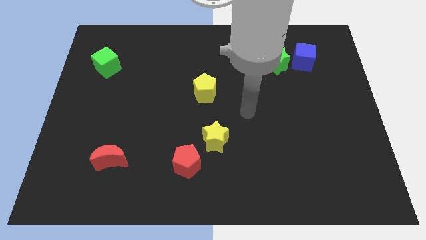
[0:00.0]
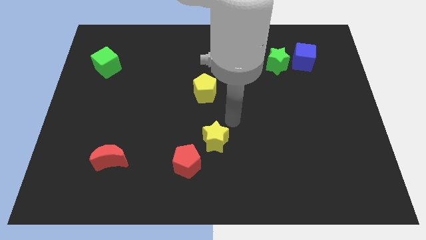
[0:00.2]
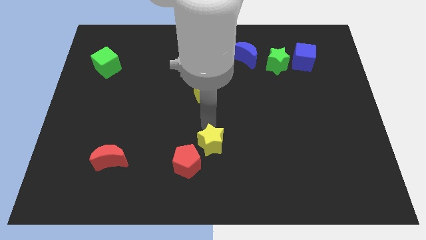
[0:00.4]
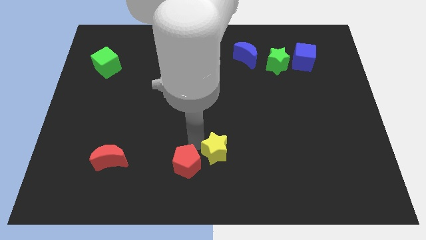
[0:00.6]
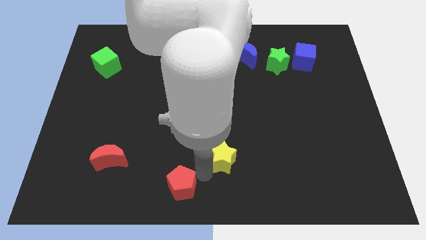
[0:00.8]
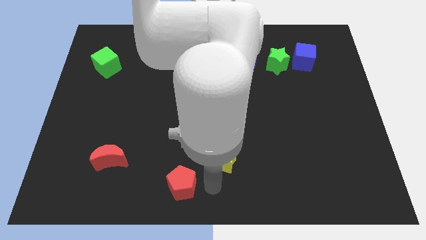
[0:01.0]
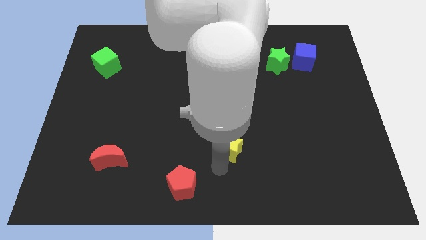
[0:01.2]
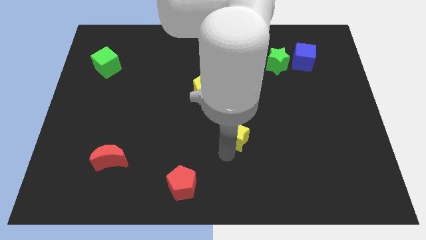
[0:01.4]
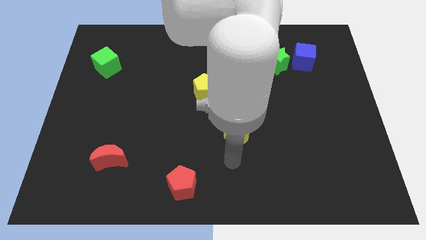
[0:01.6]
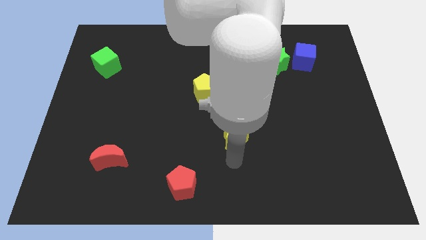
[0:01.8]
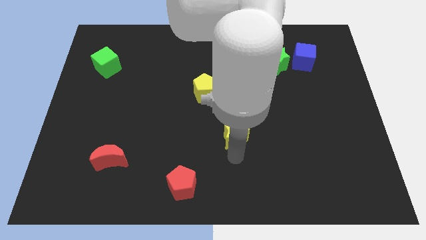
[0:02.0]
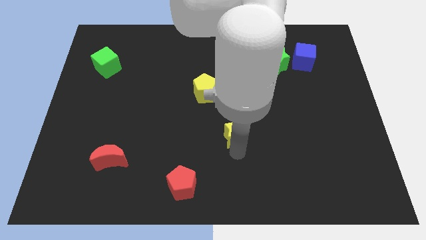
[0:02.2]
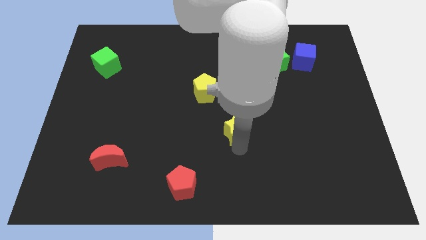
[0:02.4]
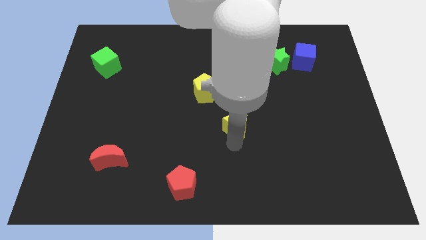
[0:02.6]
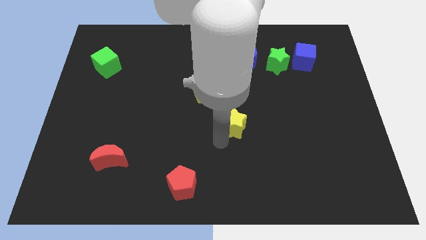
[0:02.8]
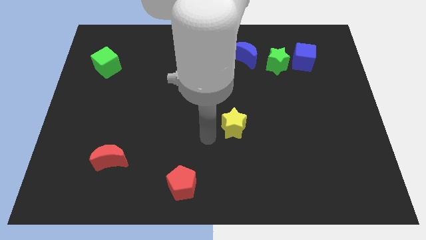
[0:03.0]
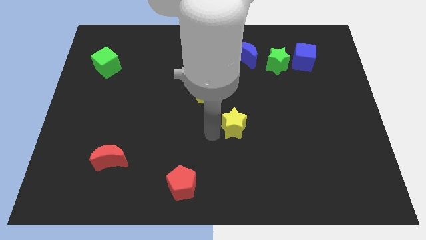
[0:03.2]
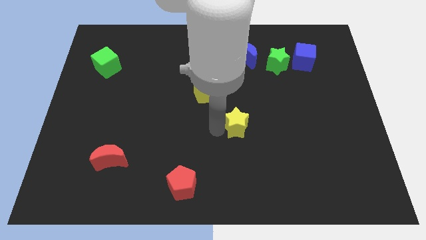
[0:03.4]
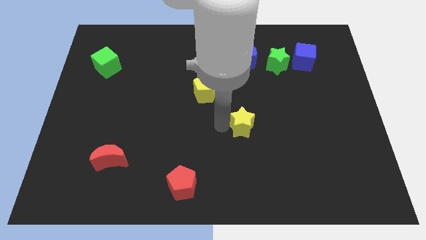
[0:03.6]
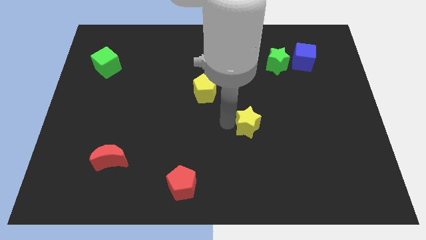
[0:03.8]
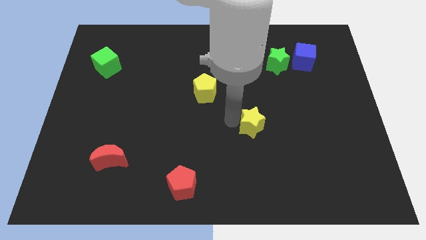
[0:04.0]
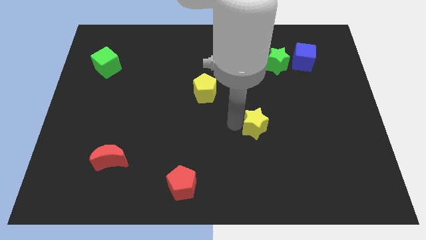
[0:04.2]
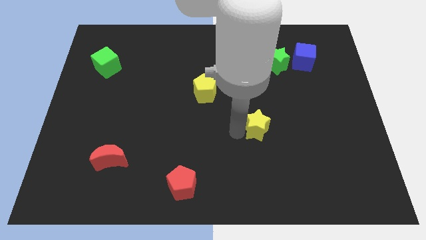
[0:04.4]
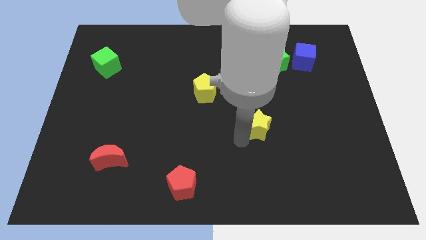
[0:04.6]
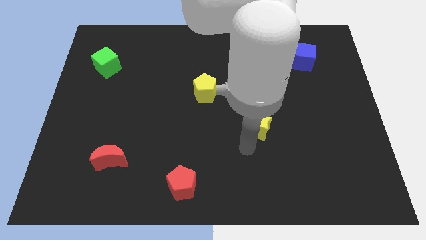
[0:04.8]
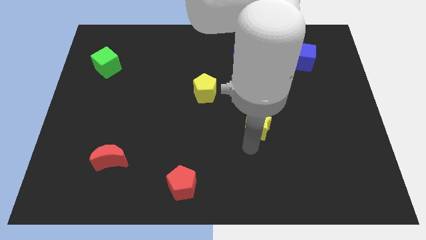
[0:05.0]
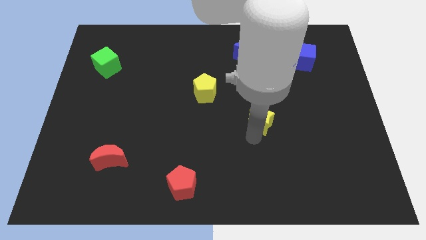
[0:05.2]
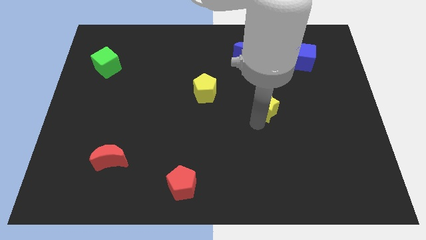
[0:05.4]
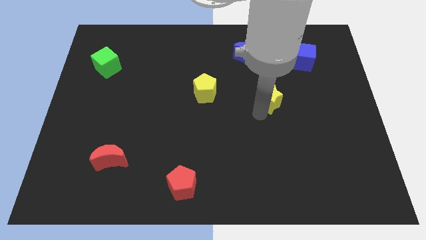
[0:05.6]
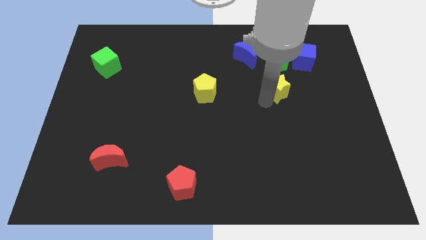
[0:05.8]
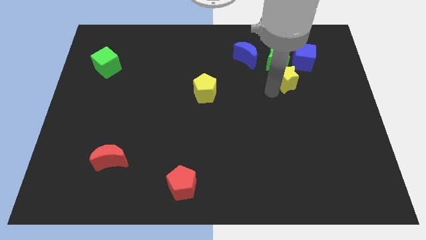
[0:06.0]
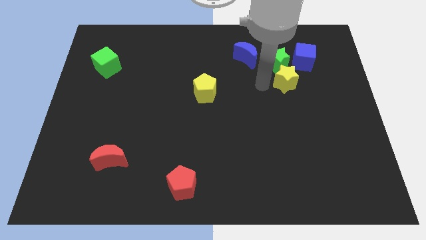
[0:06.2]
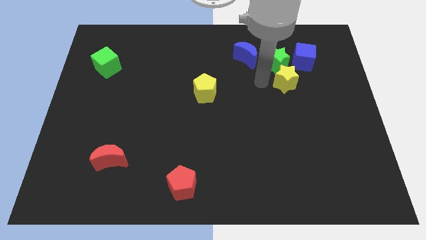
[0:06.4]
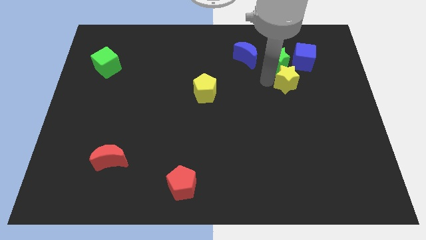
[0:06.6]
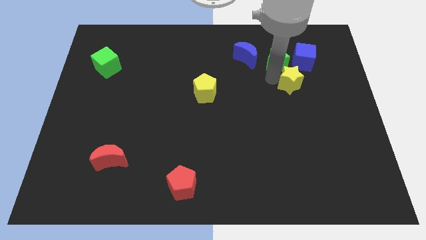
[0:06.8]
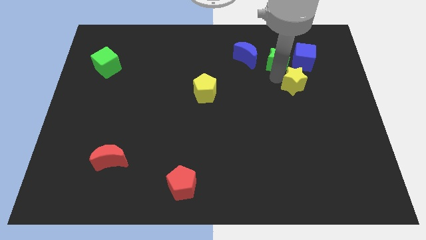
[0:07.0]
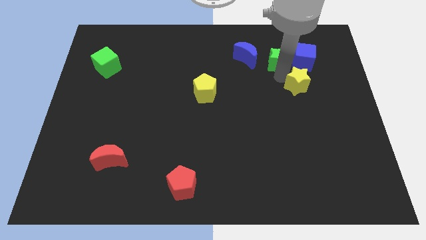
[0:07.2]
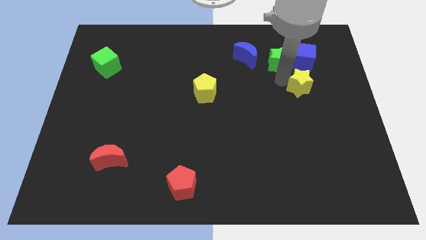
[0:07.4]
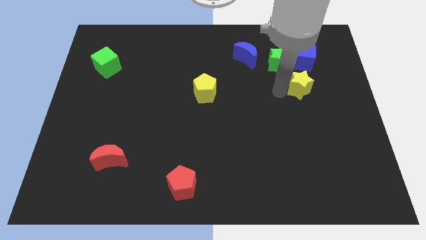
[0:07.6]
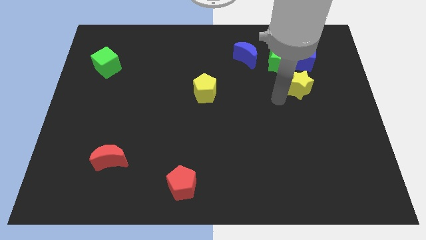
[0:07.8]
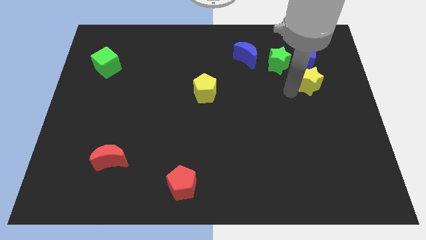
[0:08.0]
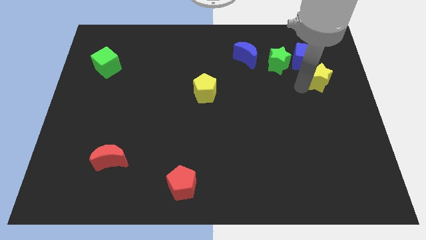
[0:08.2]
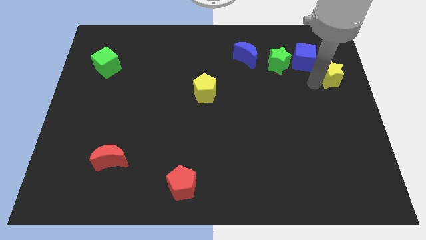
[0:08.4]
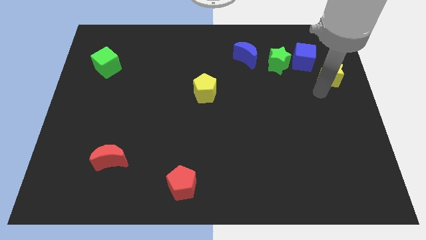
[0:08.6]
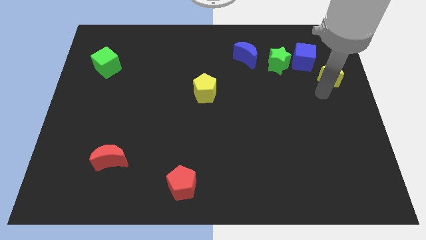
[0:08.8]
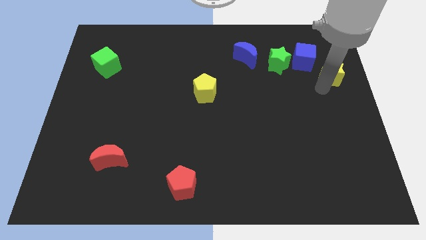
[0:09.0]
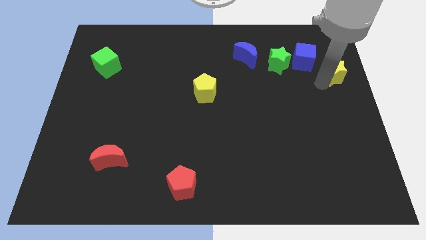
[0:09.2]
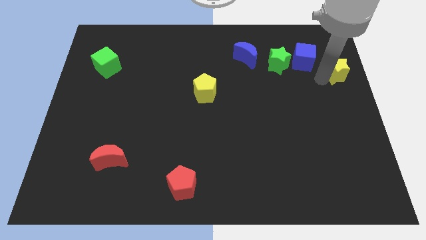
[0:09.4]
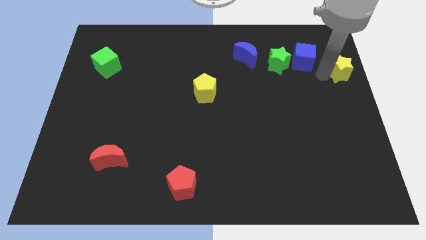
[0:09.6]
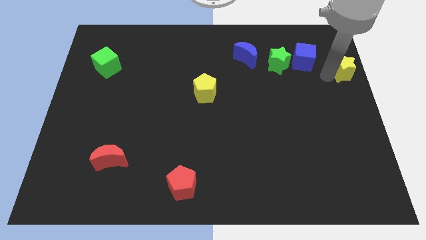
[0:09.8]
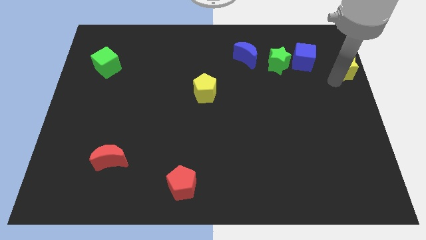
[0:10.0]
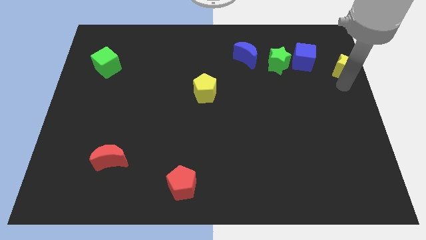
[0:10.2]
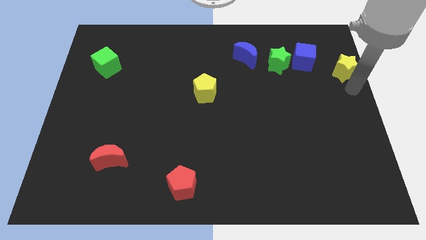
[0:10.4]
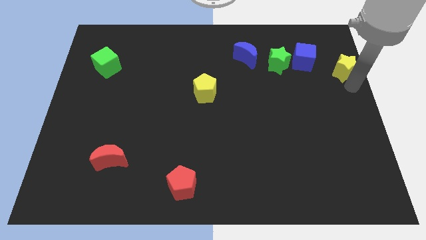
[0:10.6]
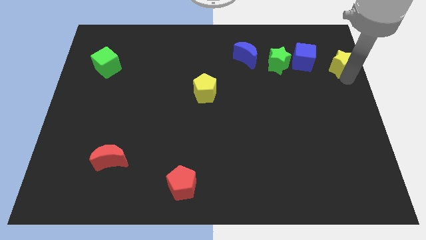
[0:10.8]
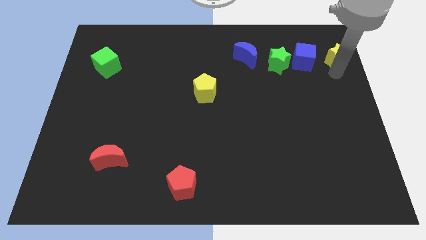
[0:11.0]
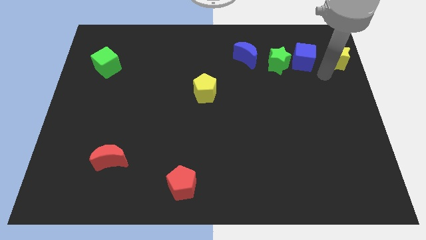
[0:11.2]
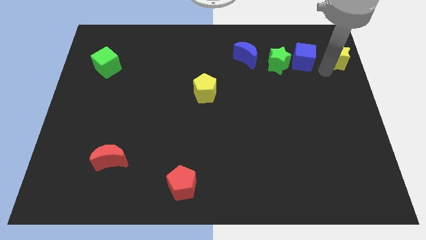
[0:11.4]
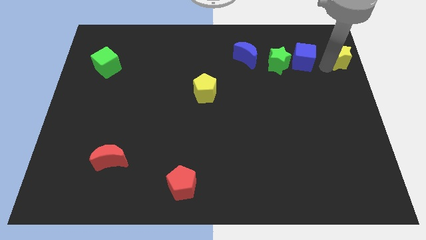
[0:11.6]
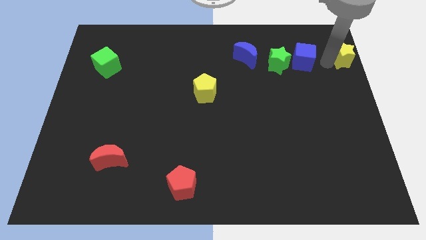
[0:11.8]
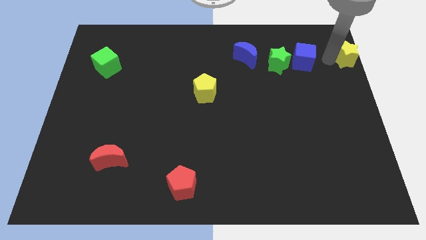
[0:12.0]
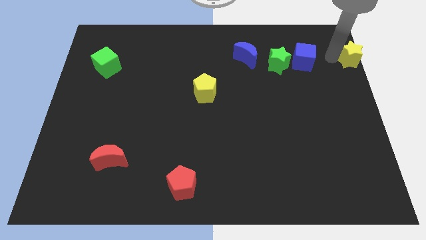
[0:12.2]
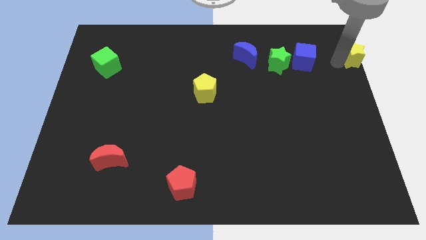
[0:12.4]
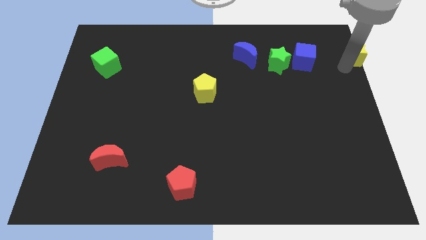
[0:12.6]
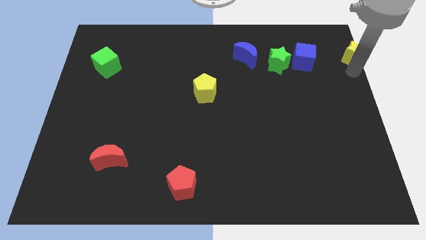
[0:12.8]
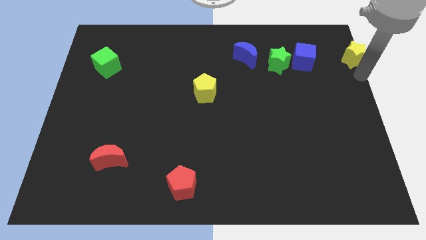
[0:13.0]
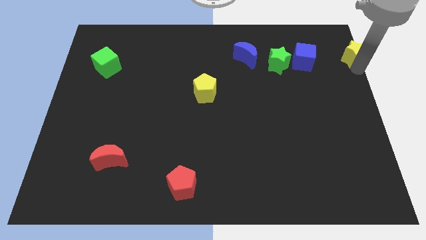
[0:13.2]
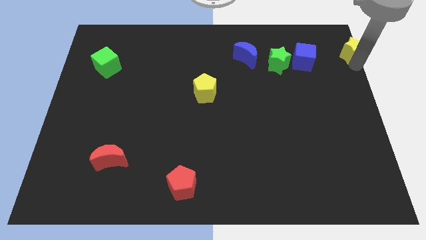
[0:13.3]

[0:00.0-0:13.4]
put the yellow star to the top right corner

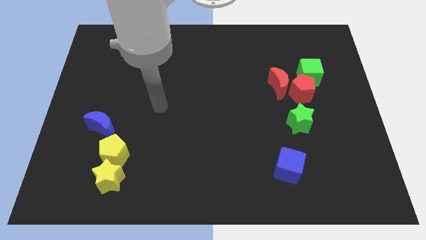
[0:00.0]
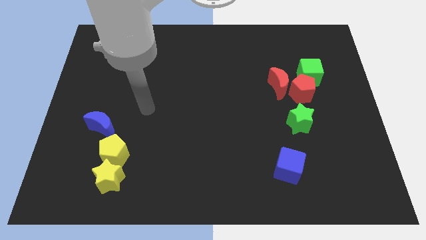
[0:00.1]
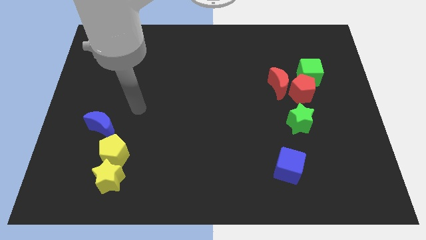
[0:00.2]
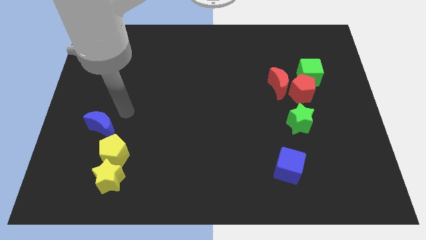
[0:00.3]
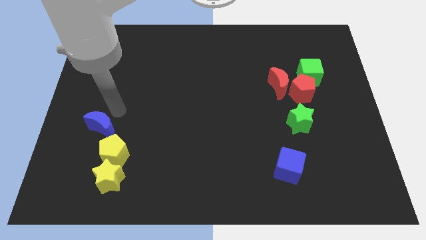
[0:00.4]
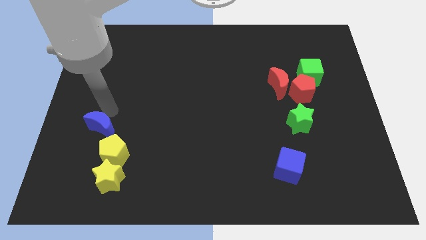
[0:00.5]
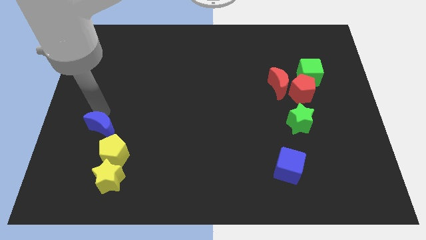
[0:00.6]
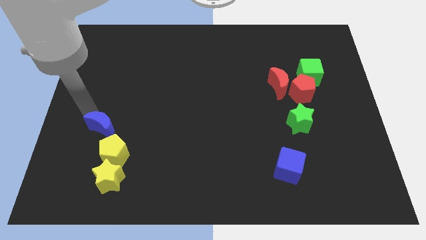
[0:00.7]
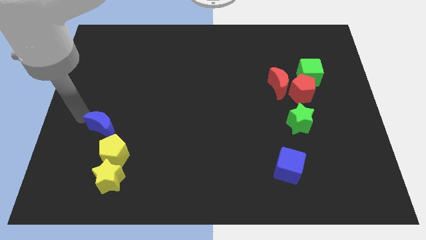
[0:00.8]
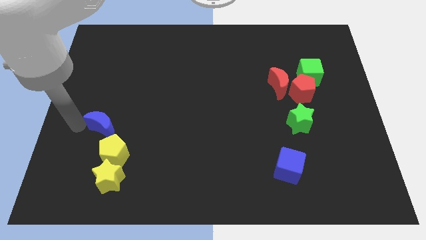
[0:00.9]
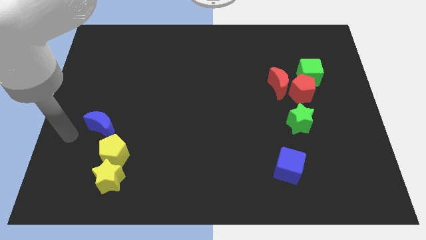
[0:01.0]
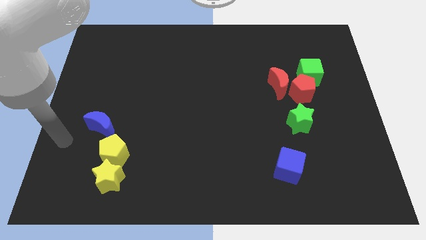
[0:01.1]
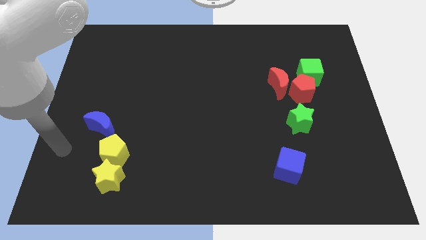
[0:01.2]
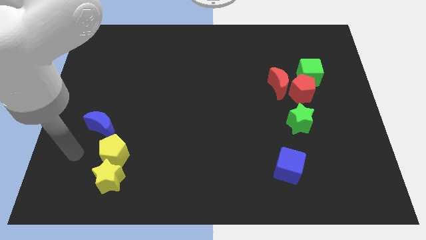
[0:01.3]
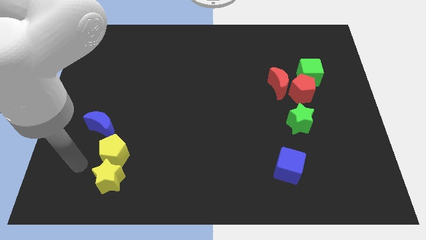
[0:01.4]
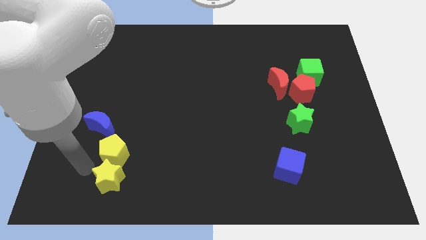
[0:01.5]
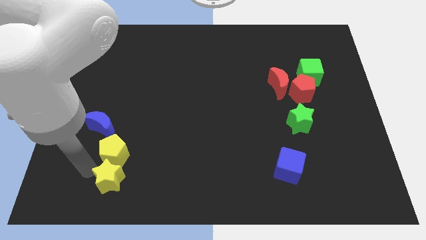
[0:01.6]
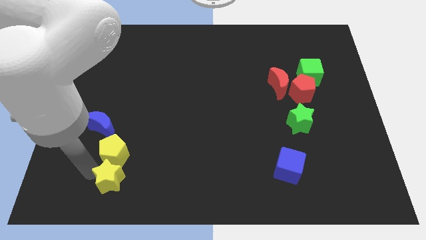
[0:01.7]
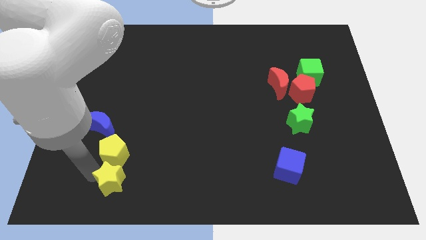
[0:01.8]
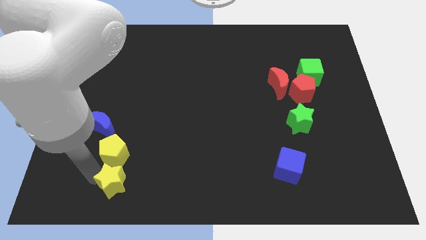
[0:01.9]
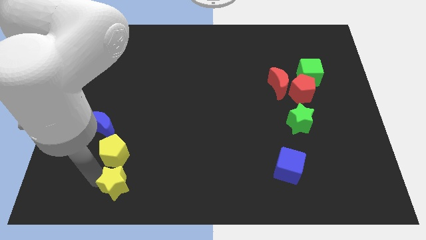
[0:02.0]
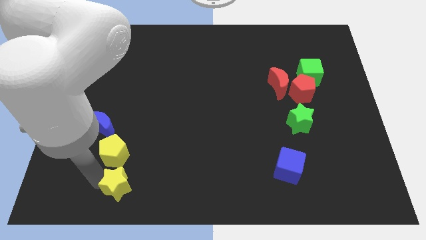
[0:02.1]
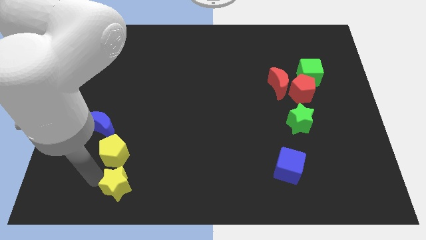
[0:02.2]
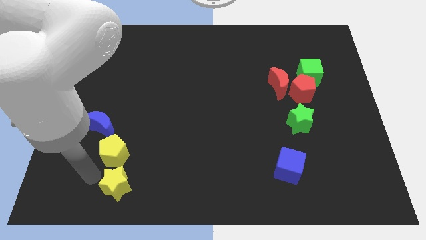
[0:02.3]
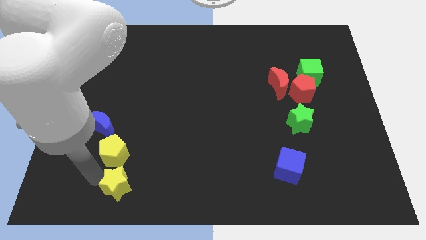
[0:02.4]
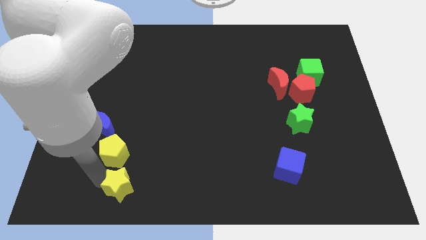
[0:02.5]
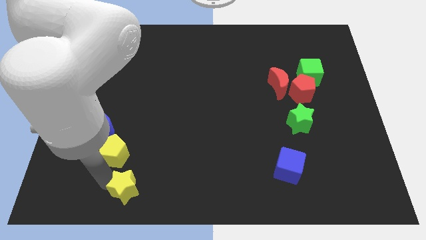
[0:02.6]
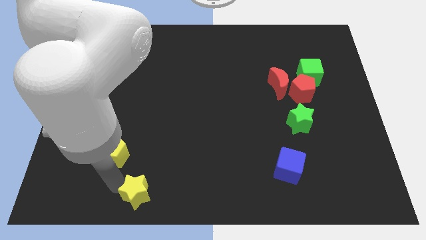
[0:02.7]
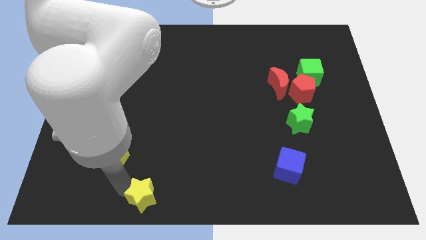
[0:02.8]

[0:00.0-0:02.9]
put the yellow star to the bottom side
